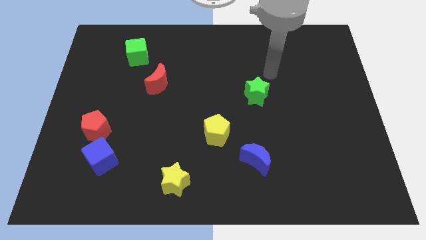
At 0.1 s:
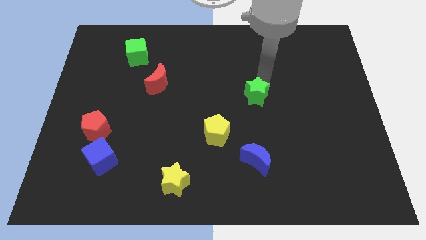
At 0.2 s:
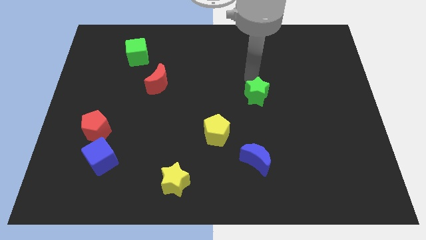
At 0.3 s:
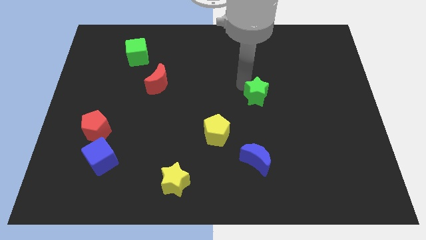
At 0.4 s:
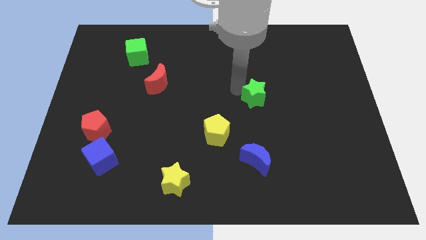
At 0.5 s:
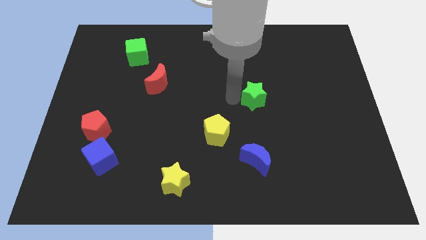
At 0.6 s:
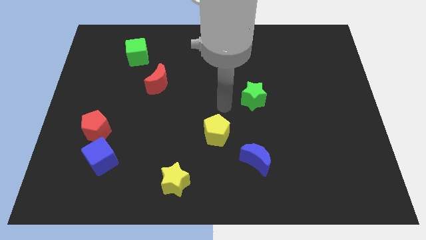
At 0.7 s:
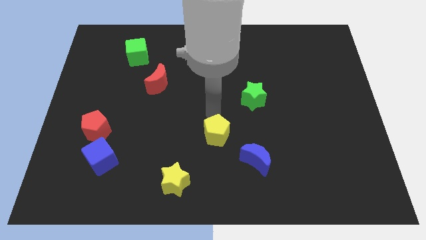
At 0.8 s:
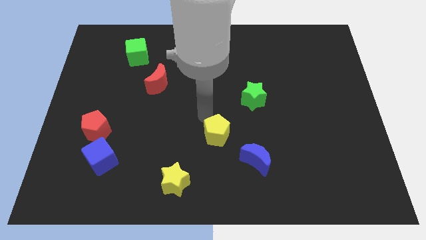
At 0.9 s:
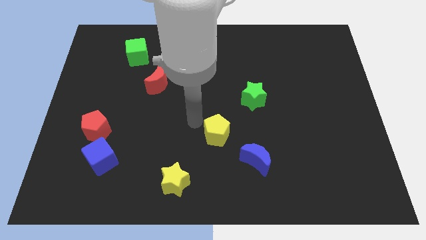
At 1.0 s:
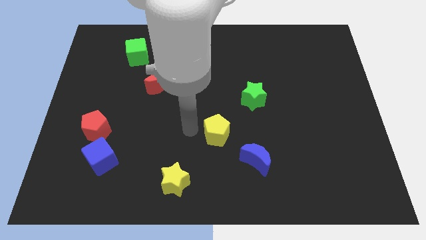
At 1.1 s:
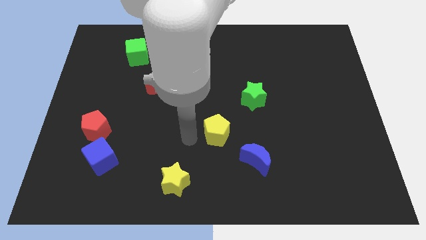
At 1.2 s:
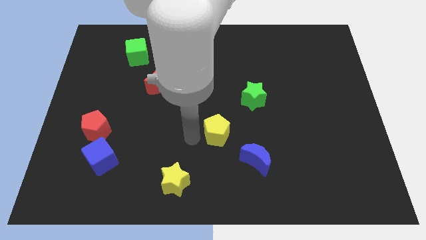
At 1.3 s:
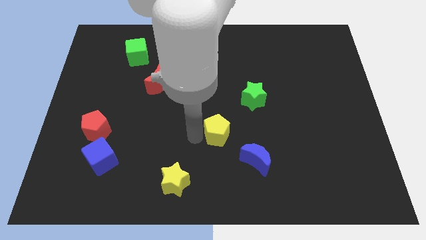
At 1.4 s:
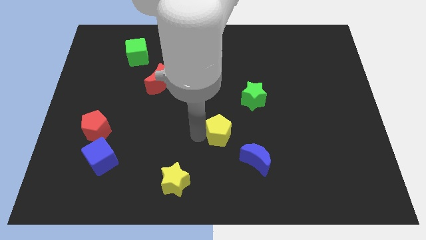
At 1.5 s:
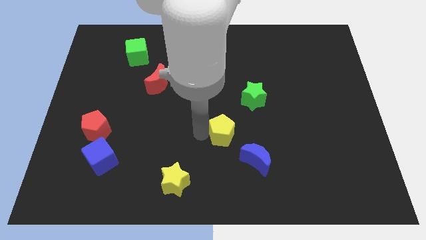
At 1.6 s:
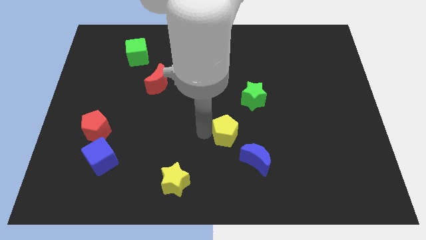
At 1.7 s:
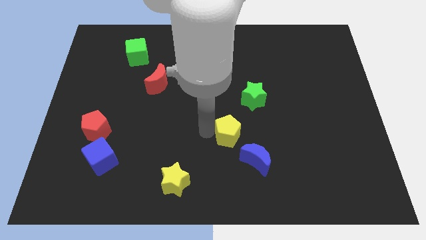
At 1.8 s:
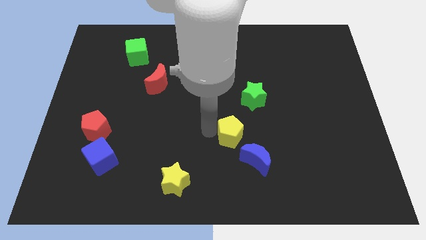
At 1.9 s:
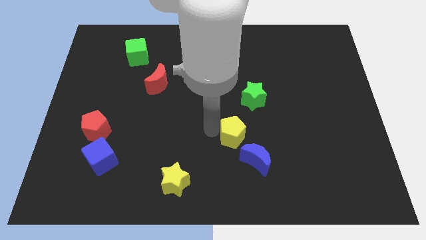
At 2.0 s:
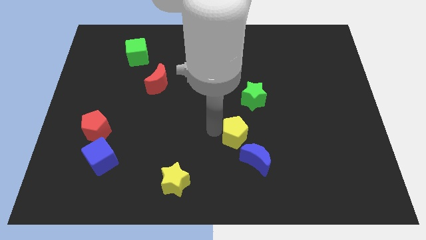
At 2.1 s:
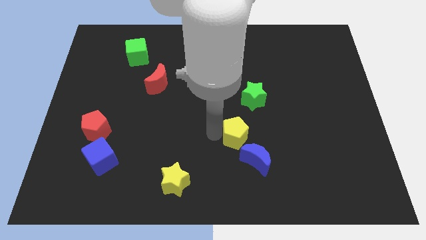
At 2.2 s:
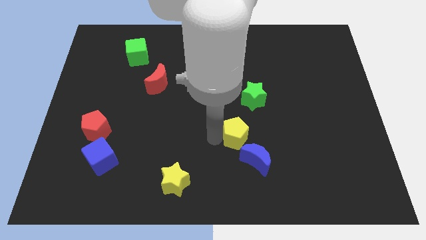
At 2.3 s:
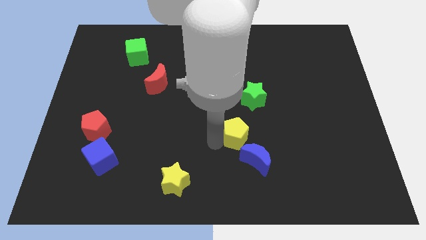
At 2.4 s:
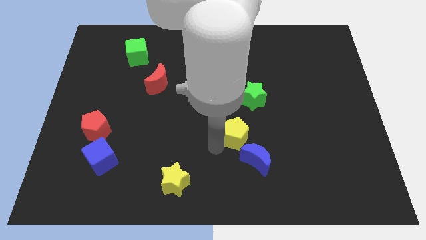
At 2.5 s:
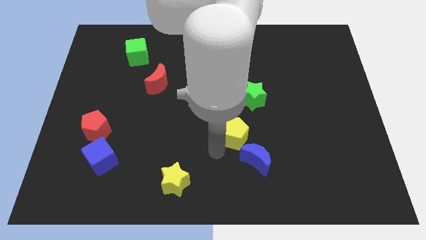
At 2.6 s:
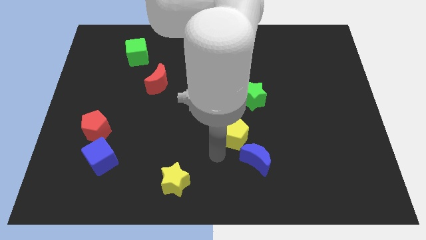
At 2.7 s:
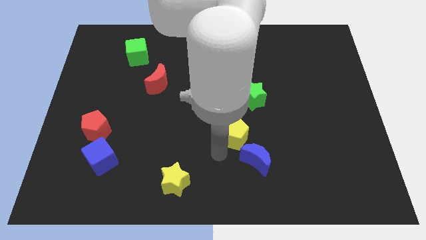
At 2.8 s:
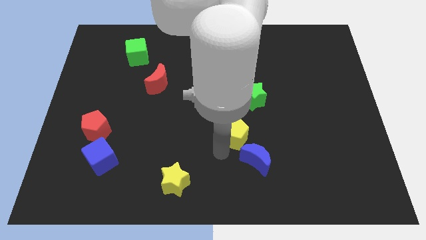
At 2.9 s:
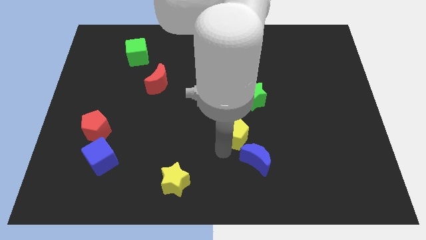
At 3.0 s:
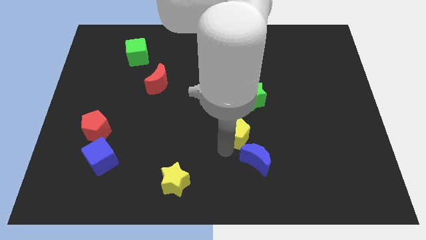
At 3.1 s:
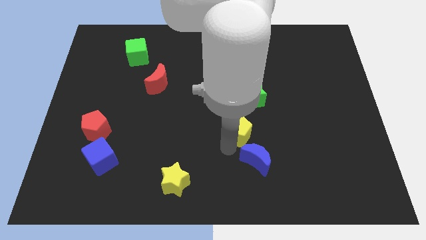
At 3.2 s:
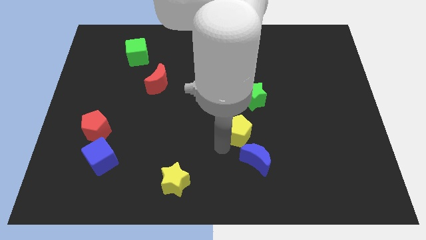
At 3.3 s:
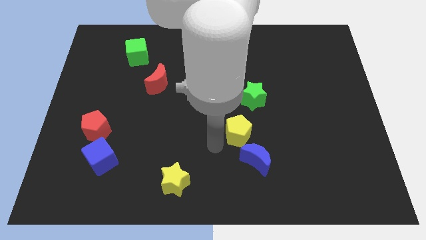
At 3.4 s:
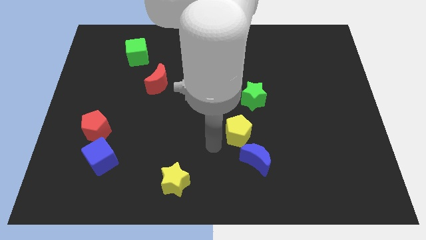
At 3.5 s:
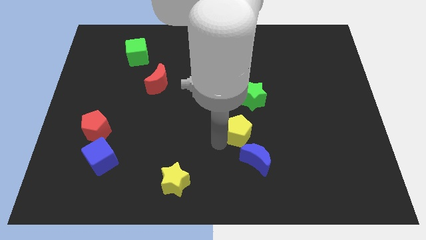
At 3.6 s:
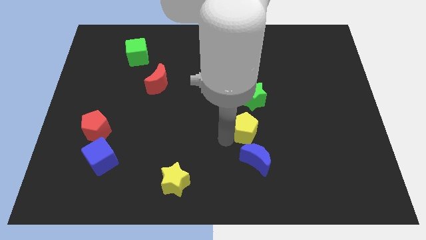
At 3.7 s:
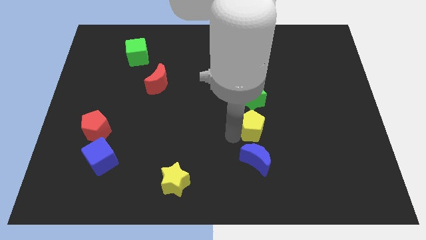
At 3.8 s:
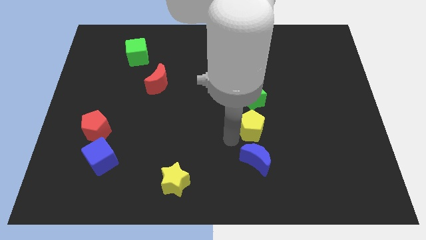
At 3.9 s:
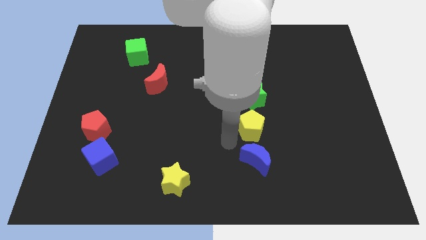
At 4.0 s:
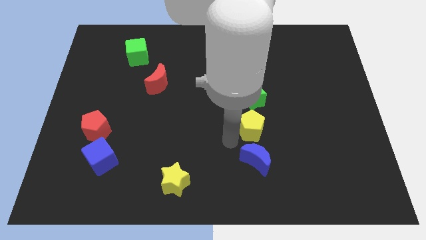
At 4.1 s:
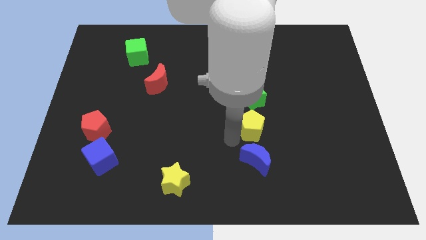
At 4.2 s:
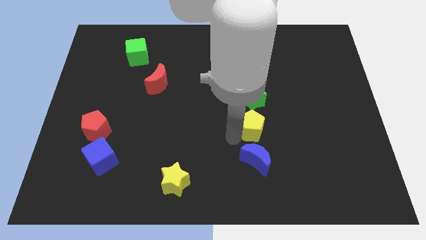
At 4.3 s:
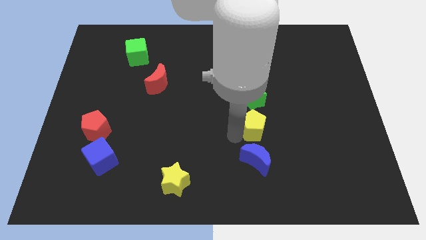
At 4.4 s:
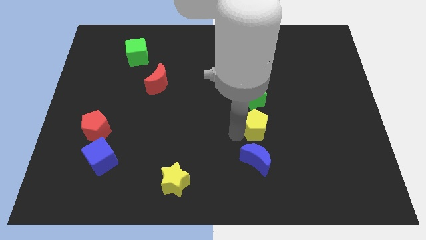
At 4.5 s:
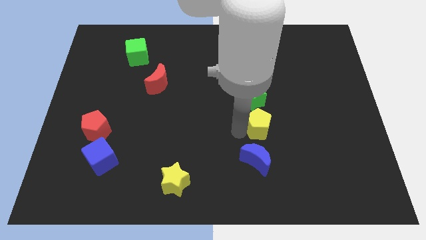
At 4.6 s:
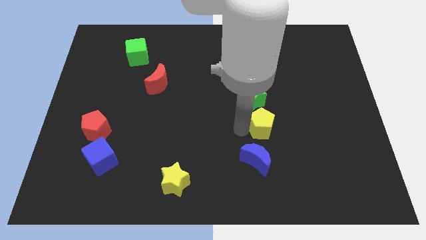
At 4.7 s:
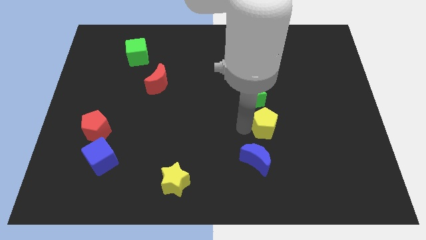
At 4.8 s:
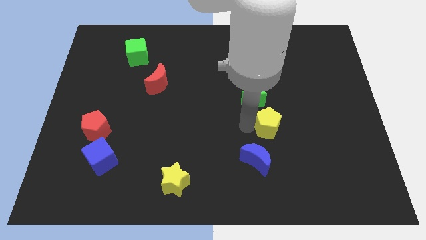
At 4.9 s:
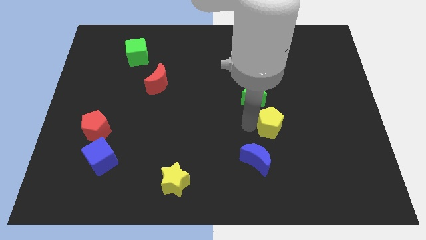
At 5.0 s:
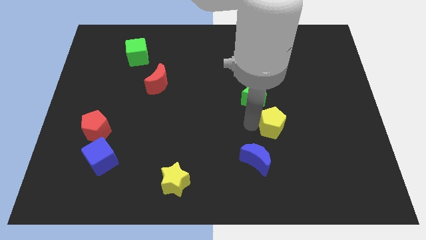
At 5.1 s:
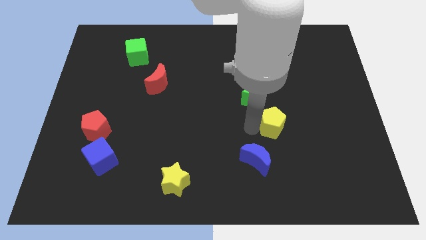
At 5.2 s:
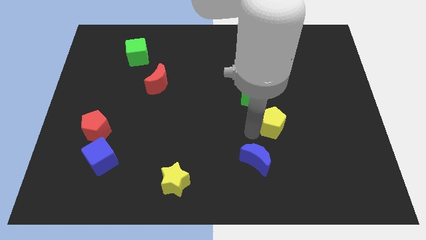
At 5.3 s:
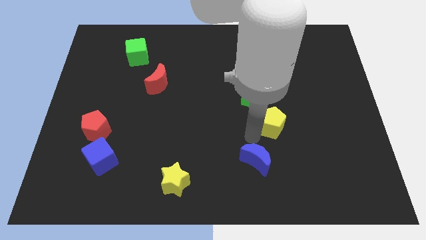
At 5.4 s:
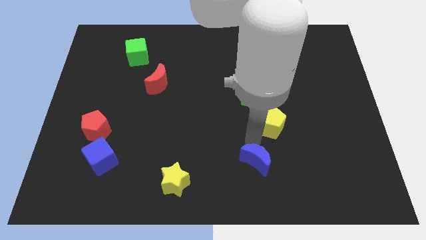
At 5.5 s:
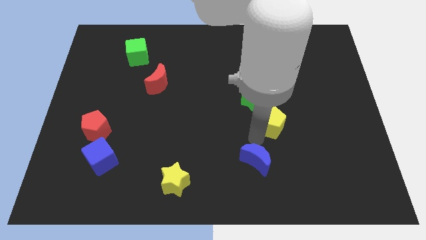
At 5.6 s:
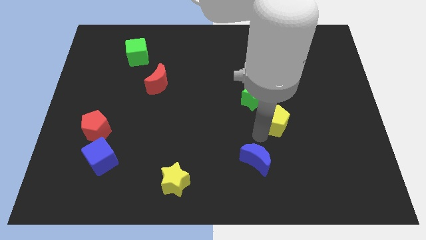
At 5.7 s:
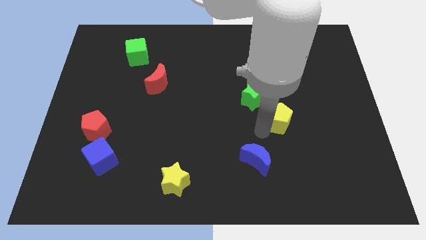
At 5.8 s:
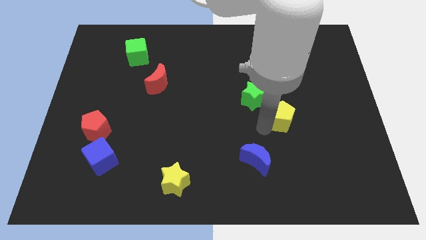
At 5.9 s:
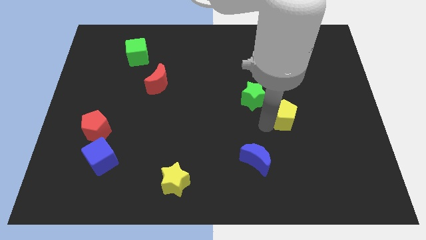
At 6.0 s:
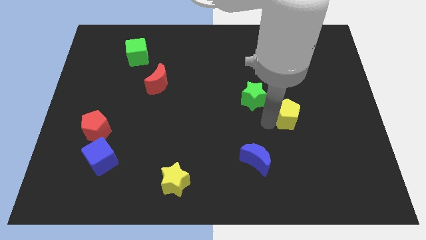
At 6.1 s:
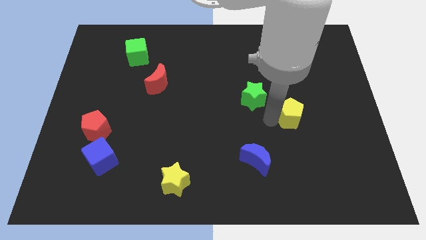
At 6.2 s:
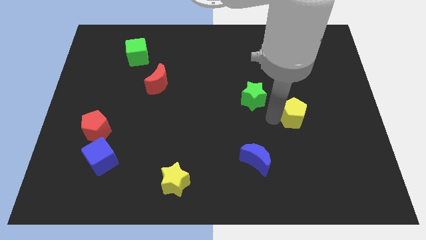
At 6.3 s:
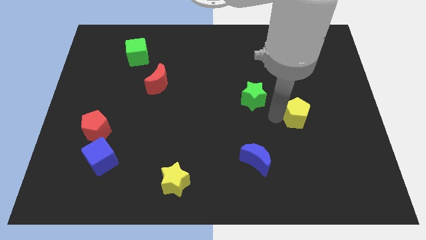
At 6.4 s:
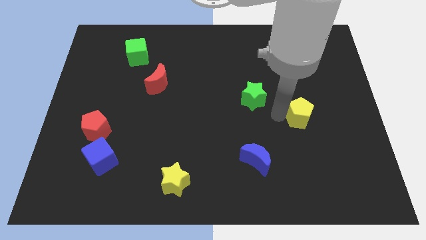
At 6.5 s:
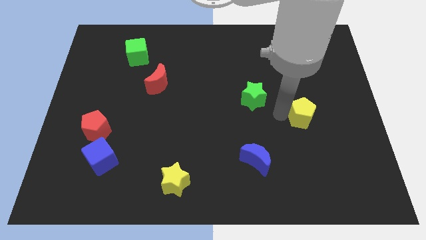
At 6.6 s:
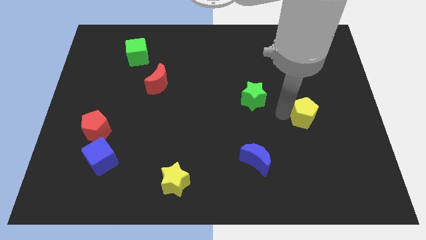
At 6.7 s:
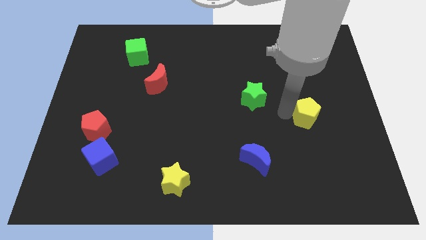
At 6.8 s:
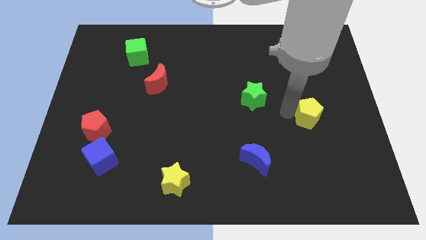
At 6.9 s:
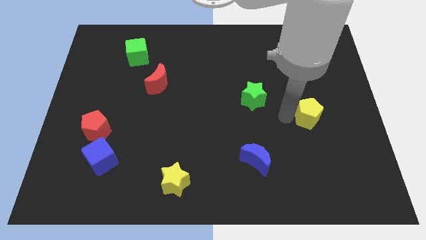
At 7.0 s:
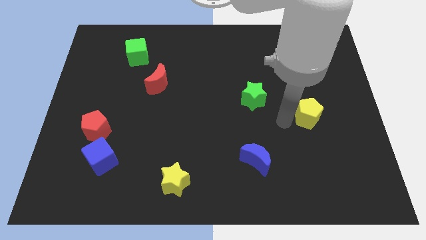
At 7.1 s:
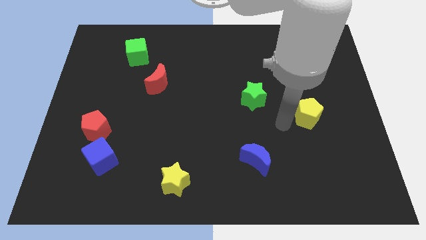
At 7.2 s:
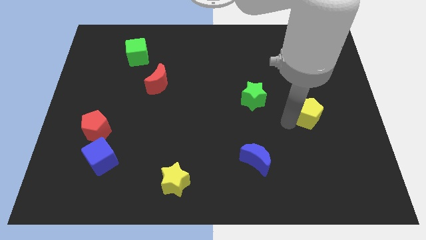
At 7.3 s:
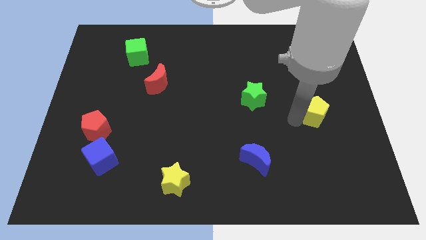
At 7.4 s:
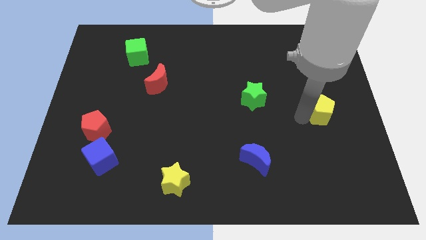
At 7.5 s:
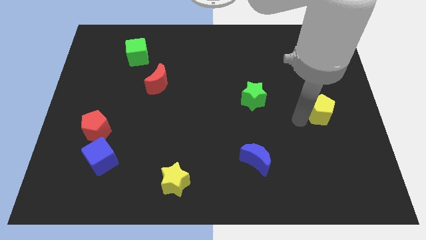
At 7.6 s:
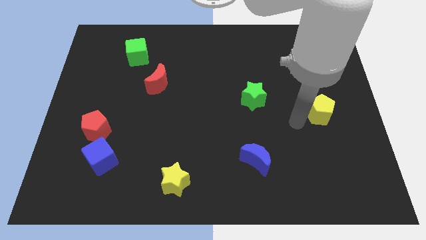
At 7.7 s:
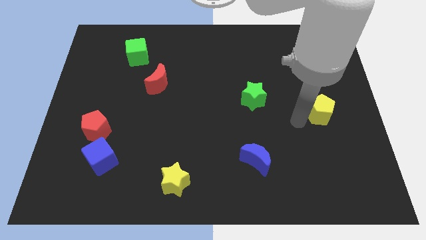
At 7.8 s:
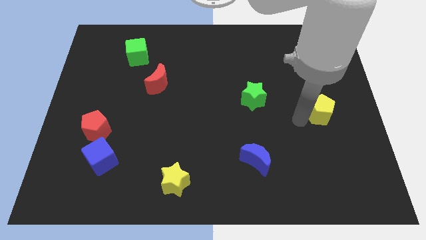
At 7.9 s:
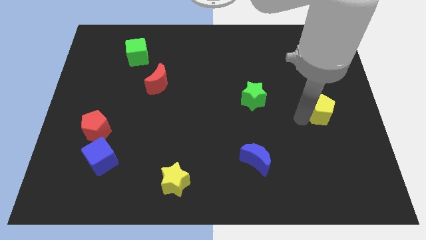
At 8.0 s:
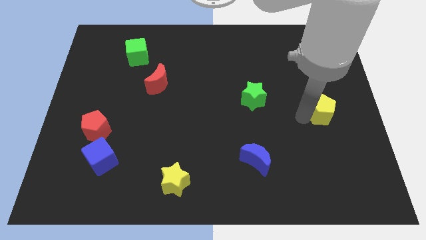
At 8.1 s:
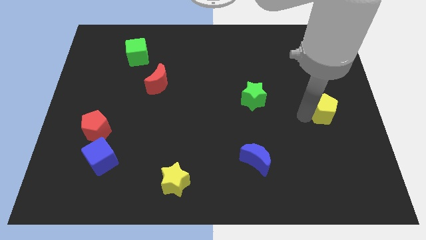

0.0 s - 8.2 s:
put the yellow pentagon to the center right

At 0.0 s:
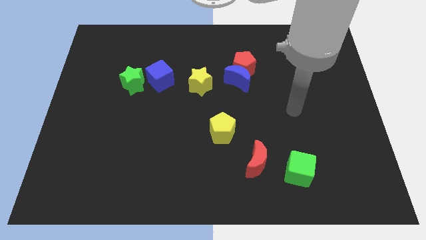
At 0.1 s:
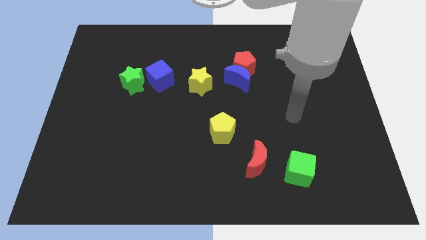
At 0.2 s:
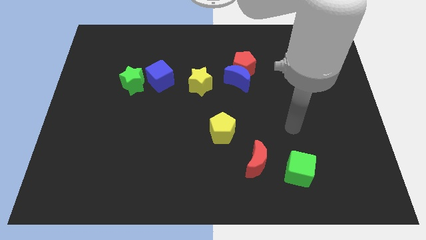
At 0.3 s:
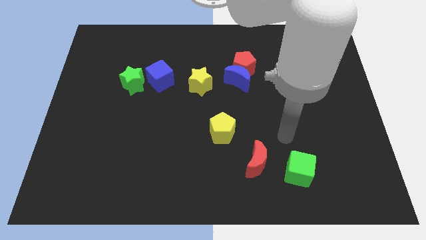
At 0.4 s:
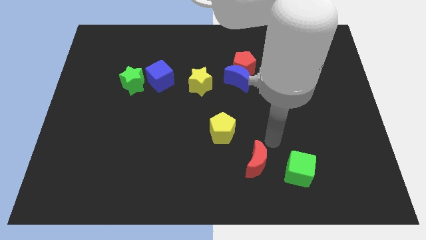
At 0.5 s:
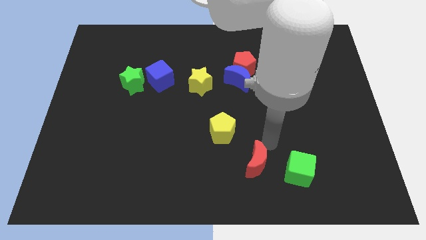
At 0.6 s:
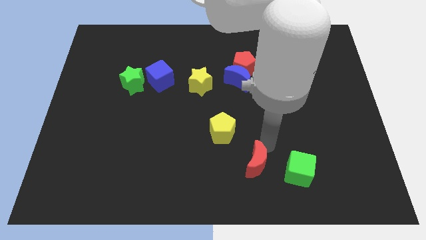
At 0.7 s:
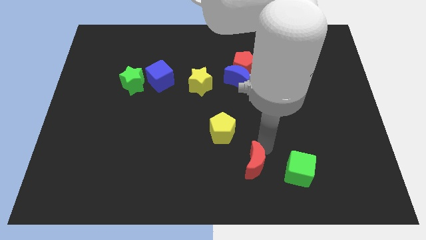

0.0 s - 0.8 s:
push the red moon to the bottom
